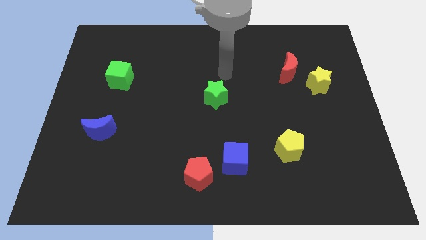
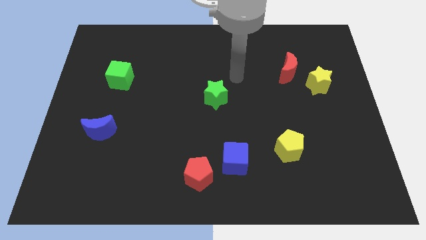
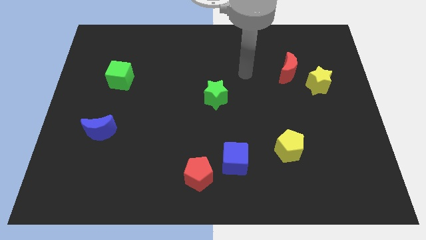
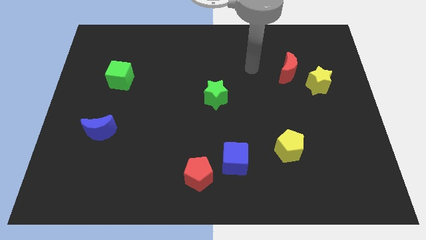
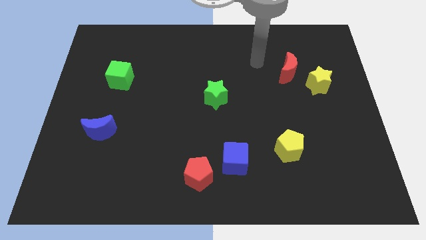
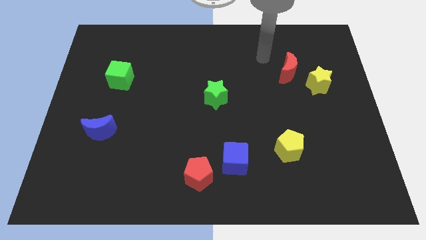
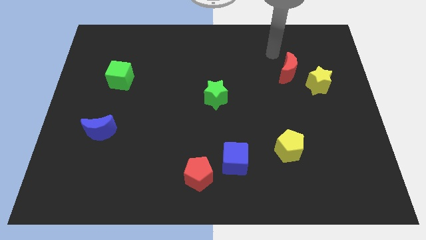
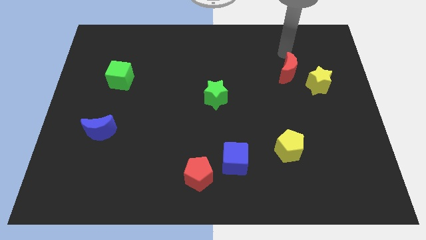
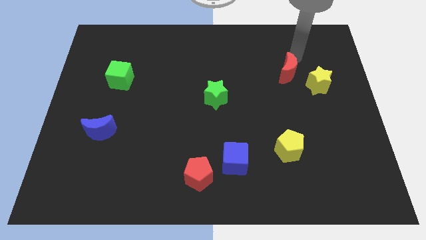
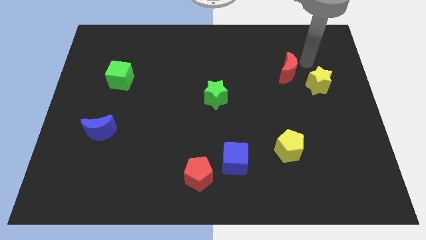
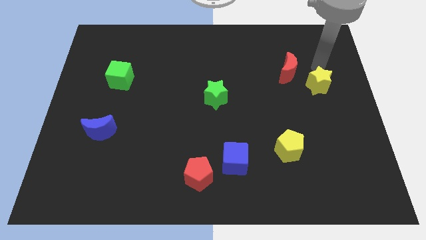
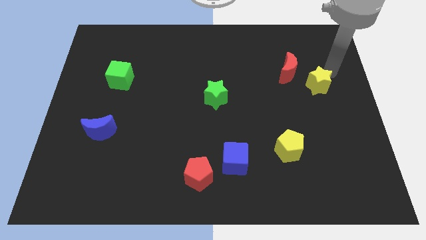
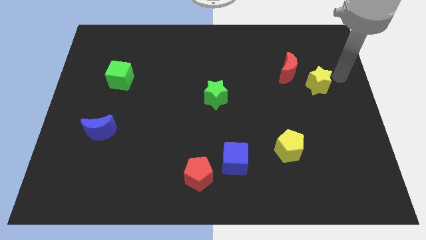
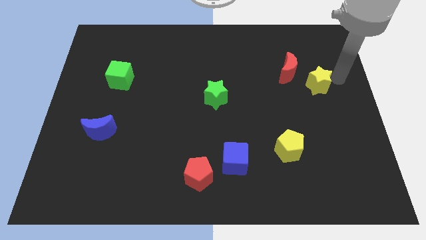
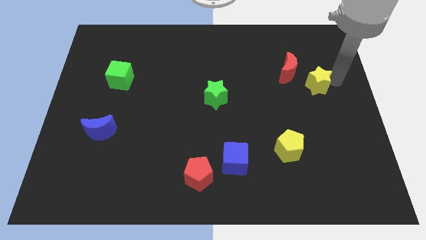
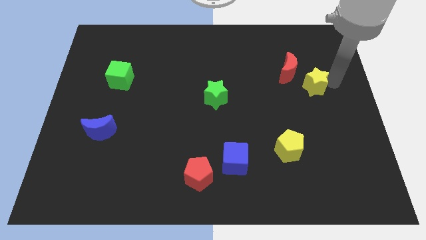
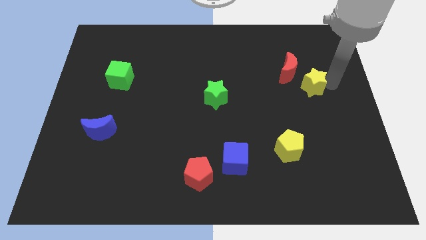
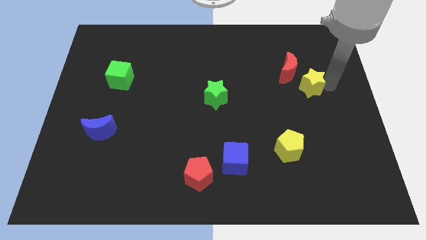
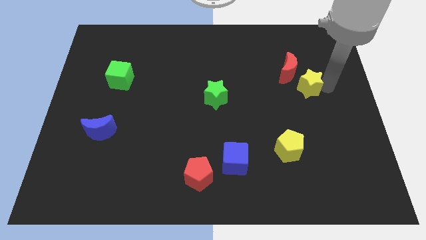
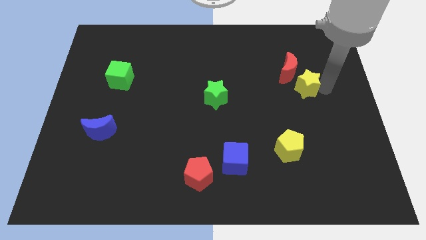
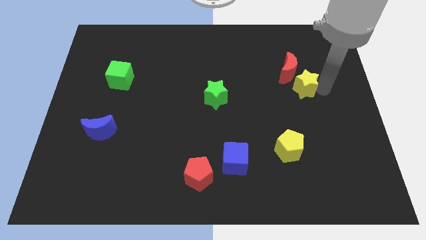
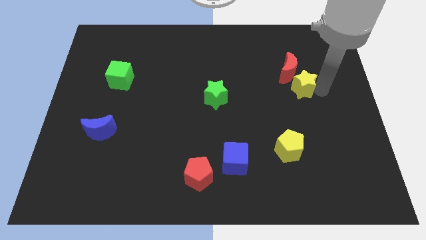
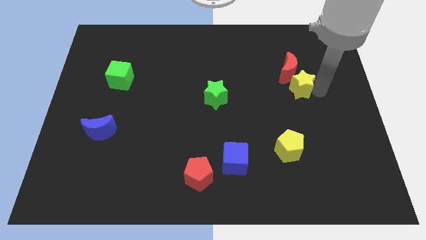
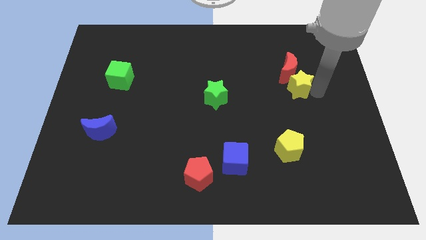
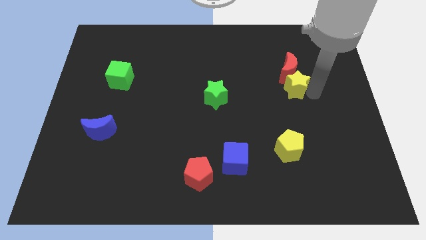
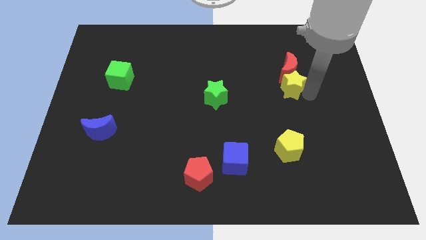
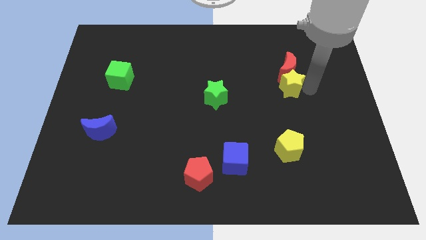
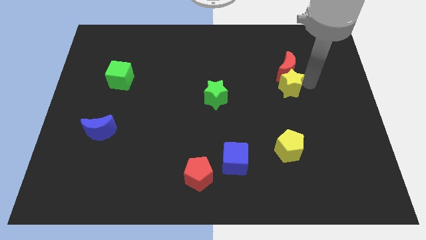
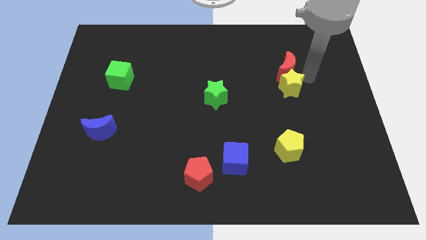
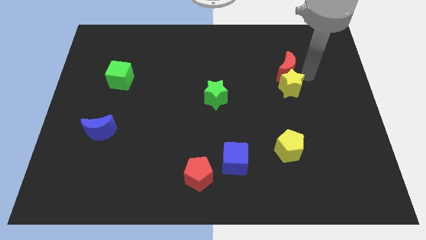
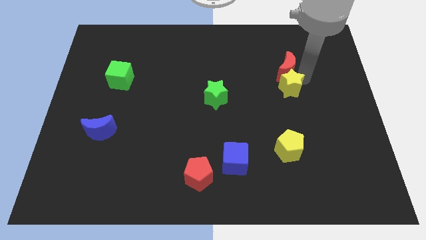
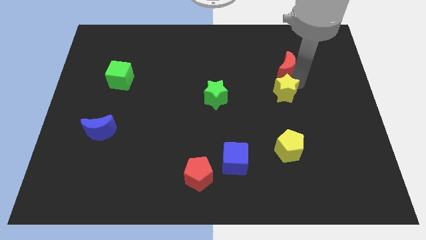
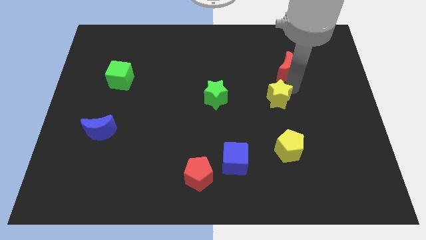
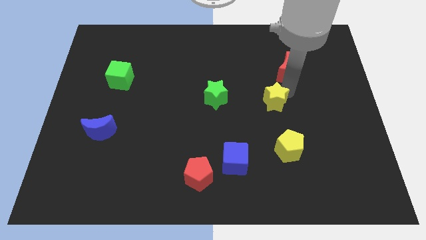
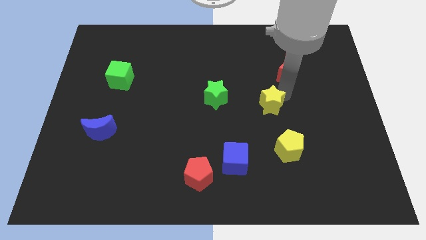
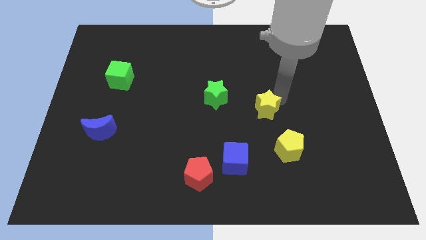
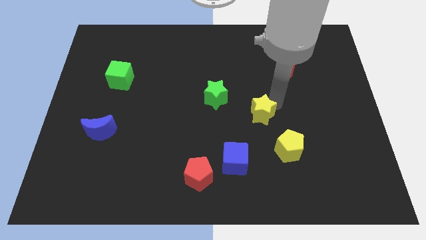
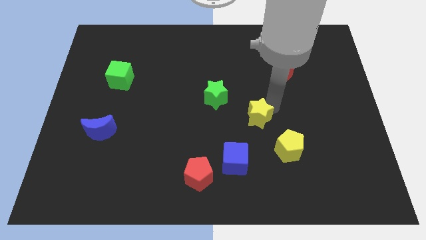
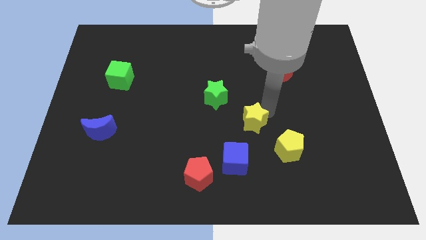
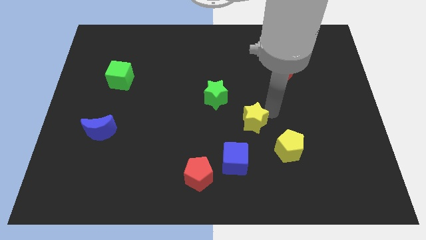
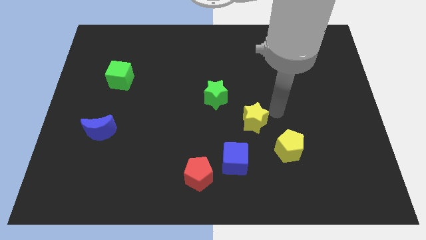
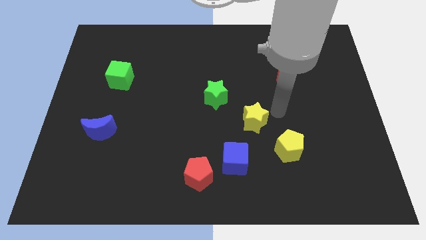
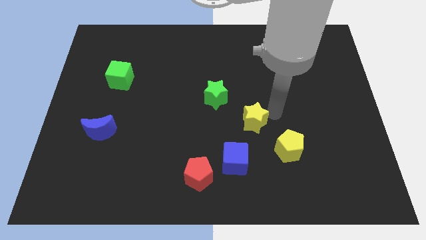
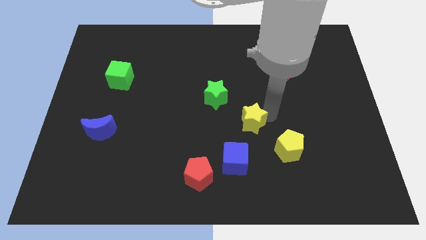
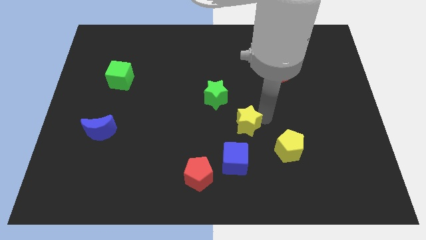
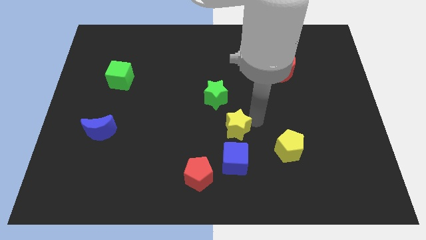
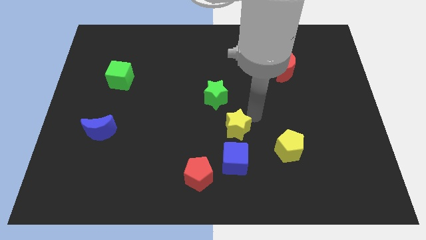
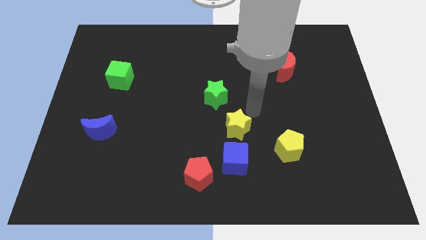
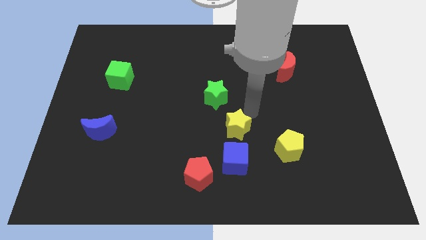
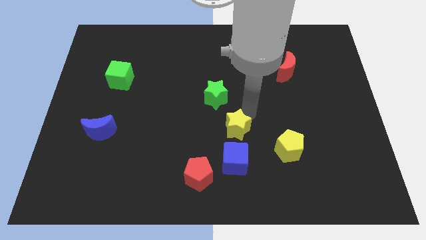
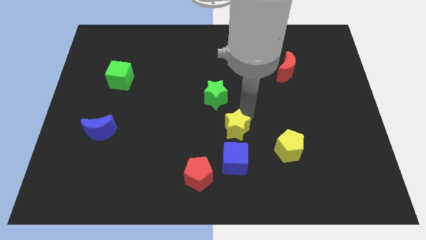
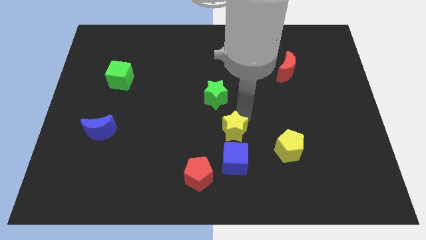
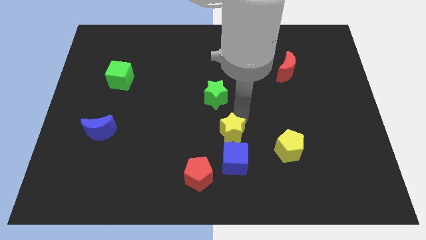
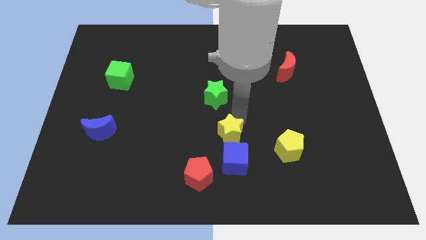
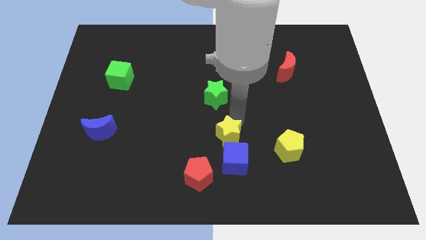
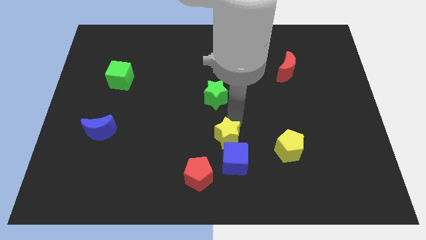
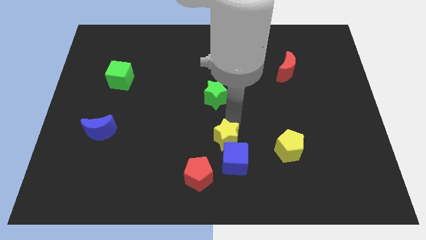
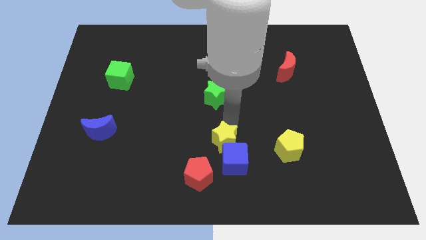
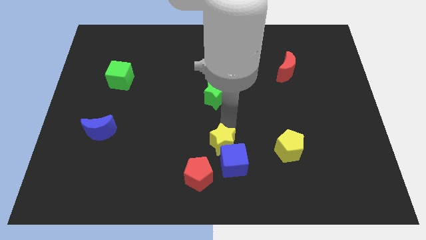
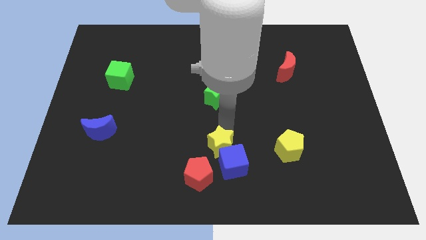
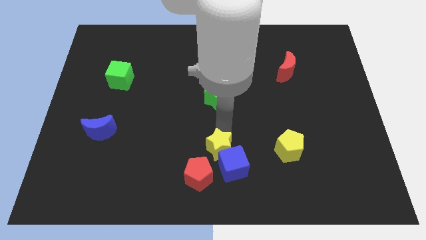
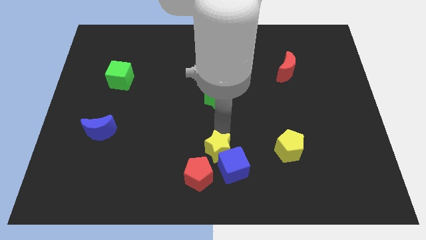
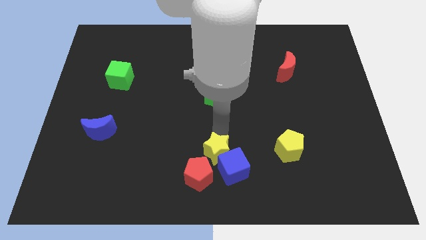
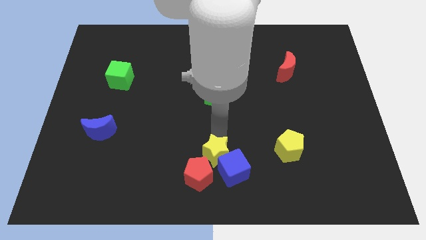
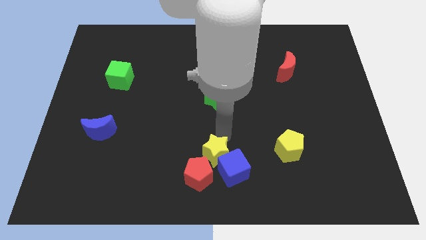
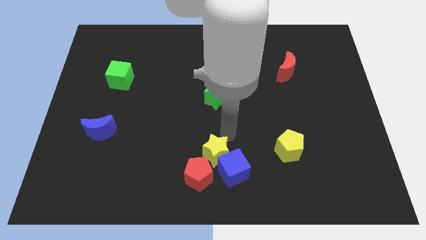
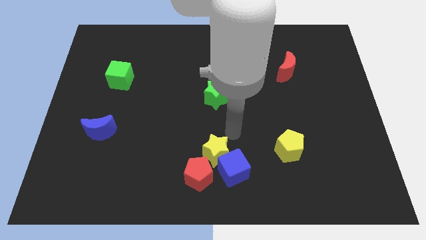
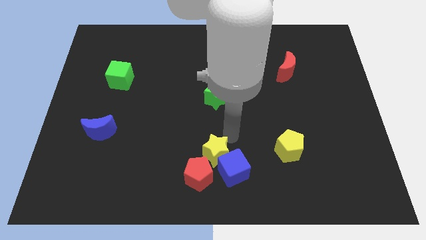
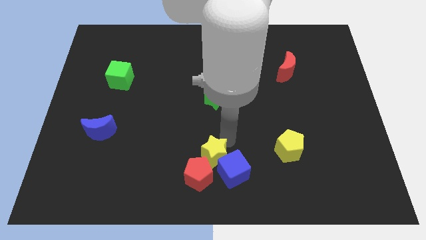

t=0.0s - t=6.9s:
move the yellow star next to the red pentagon
